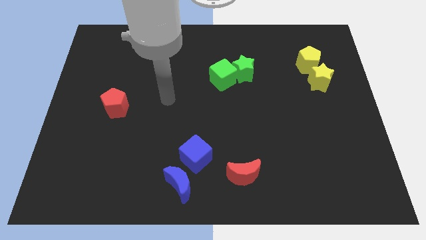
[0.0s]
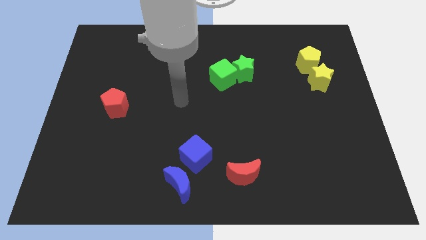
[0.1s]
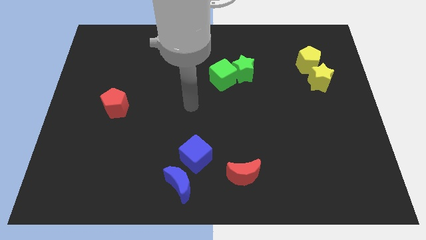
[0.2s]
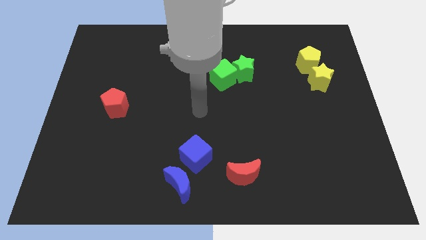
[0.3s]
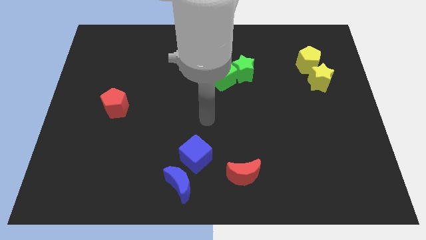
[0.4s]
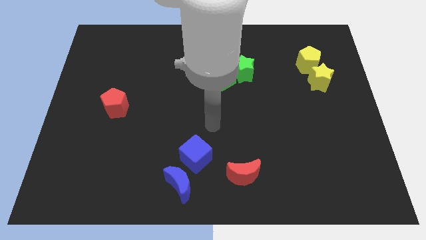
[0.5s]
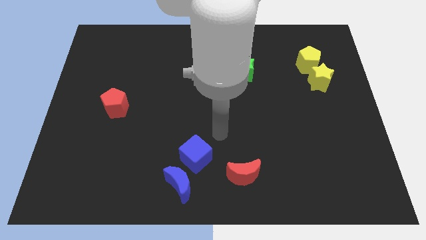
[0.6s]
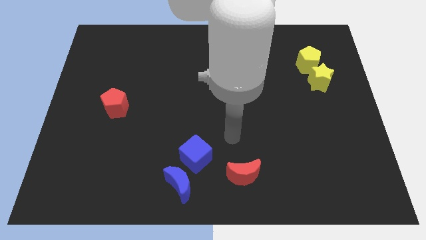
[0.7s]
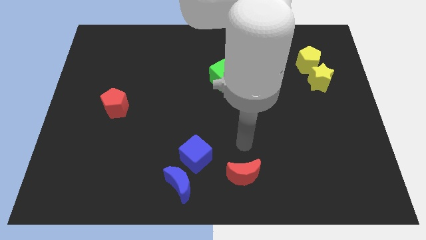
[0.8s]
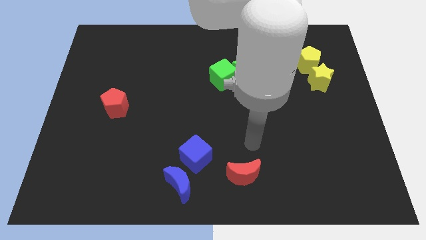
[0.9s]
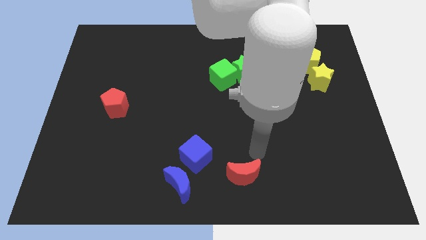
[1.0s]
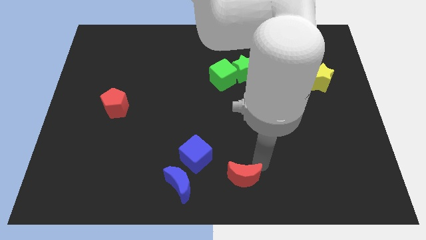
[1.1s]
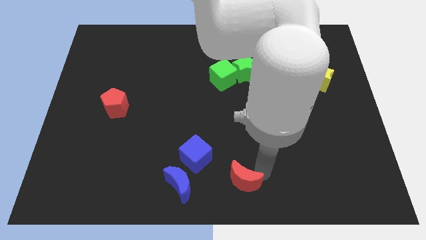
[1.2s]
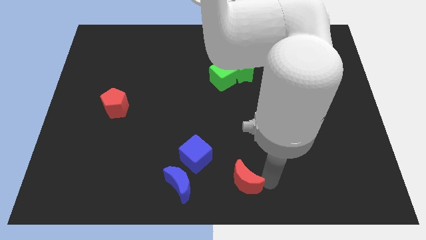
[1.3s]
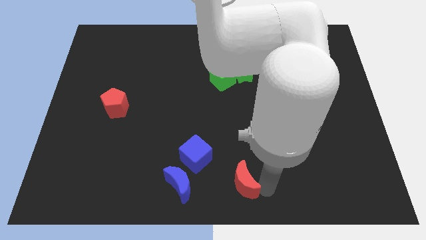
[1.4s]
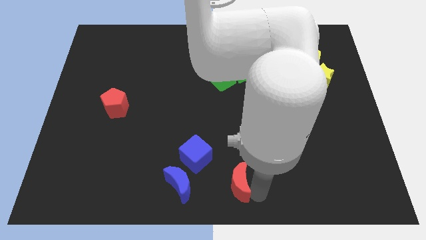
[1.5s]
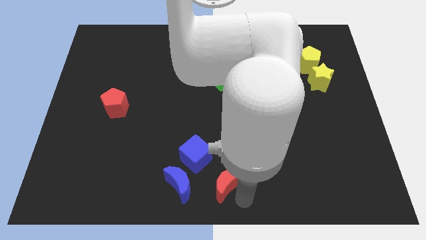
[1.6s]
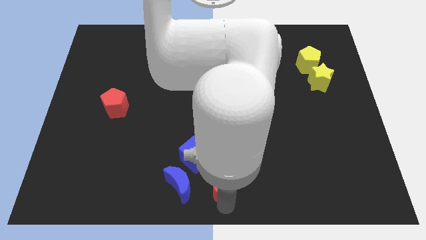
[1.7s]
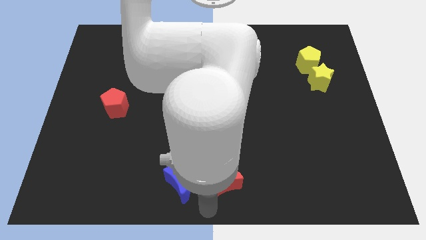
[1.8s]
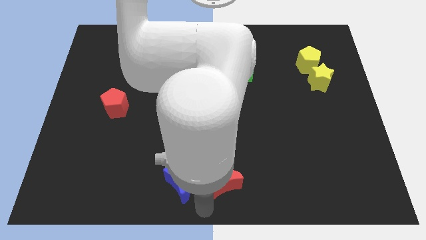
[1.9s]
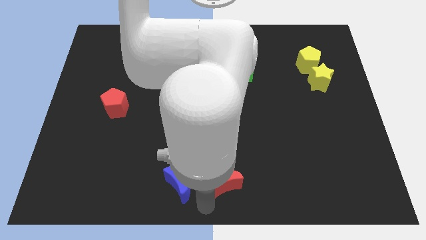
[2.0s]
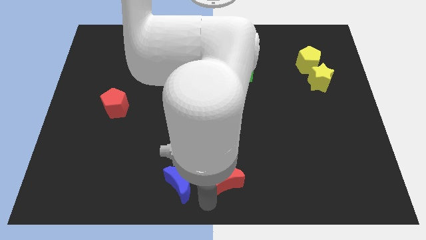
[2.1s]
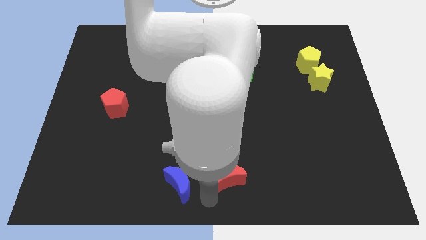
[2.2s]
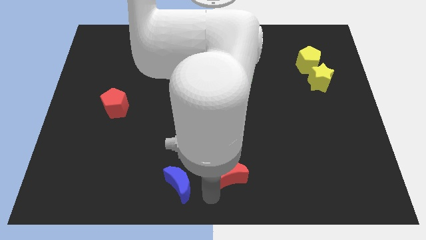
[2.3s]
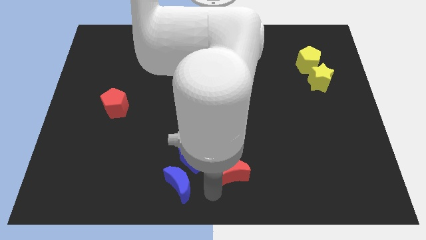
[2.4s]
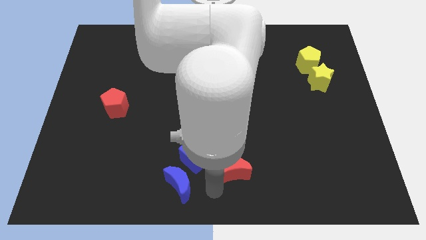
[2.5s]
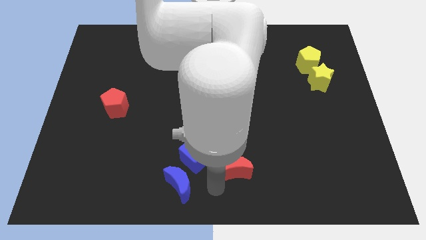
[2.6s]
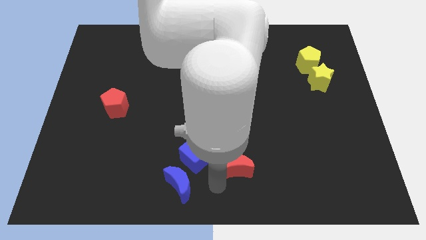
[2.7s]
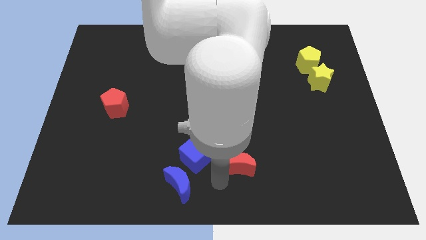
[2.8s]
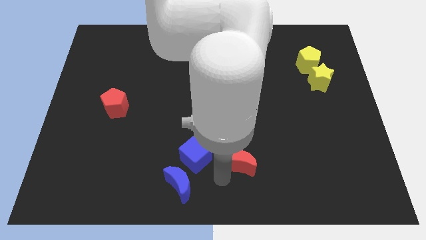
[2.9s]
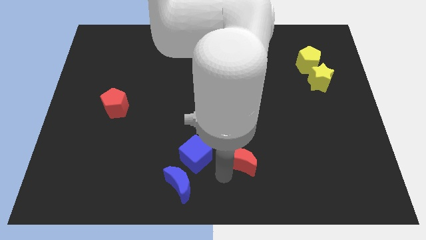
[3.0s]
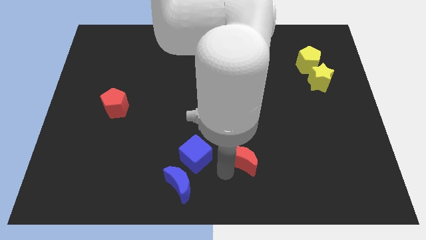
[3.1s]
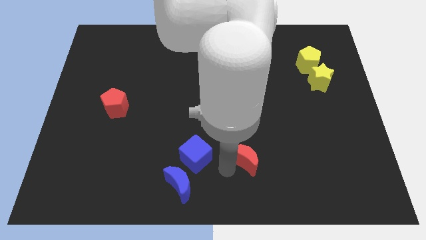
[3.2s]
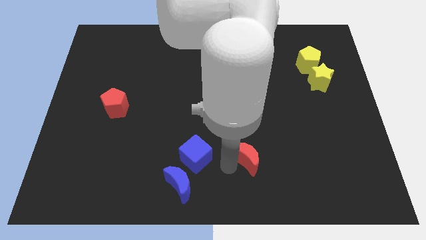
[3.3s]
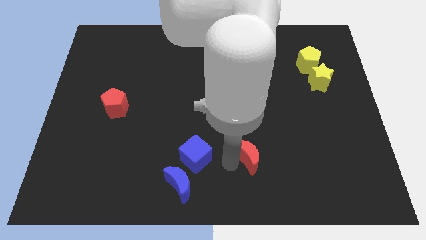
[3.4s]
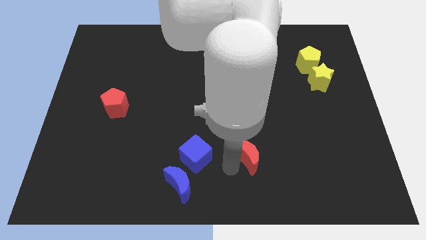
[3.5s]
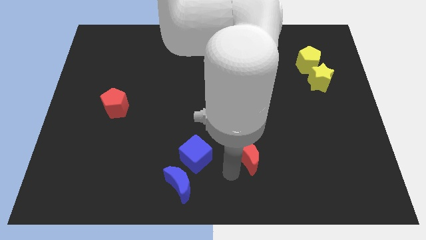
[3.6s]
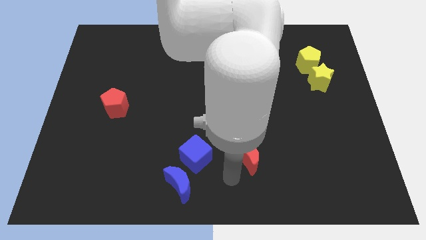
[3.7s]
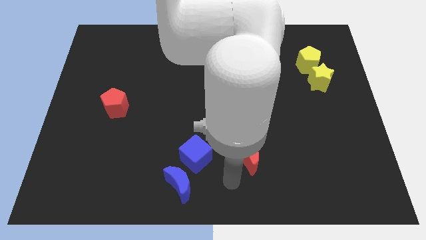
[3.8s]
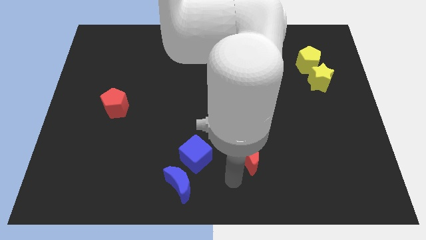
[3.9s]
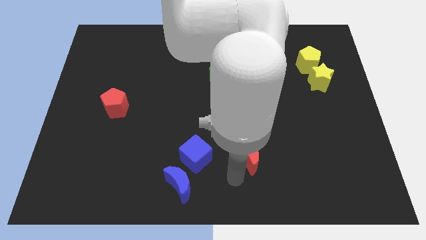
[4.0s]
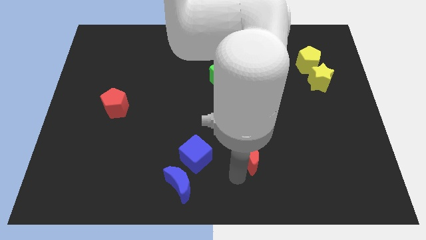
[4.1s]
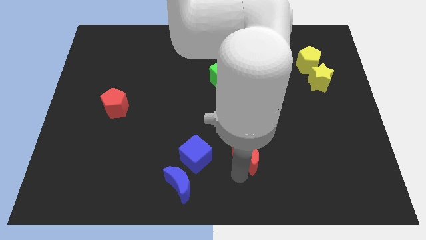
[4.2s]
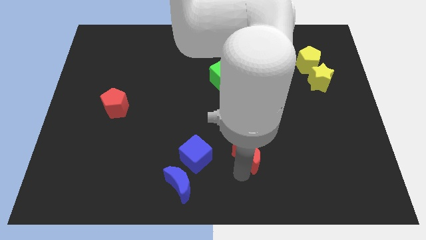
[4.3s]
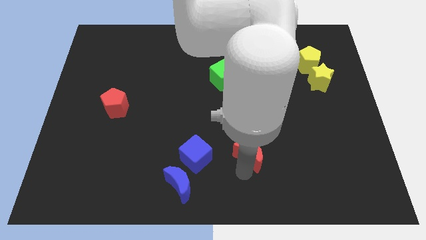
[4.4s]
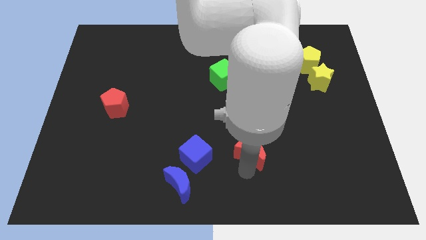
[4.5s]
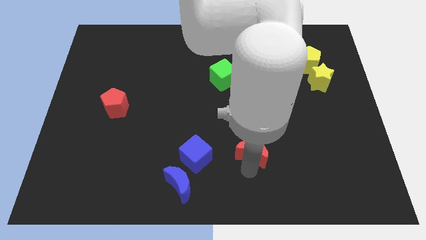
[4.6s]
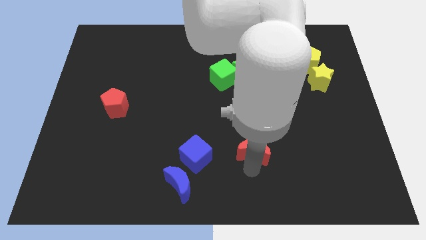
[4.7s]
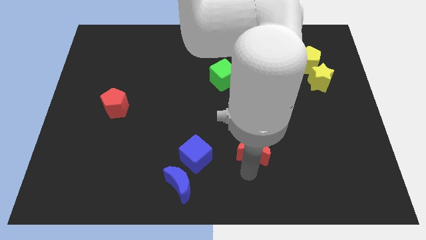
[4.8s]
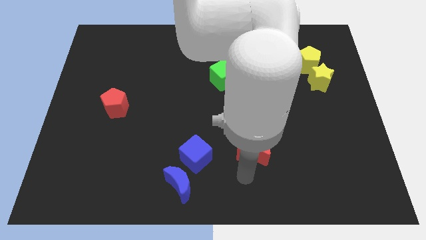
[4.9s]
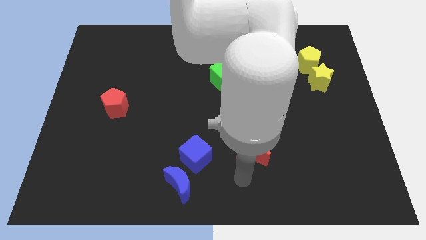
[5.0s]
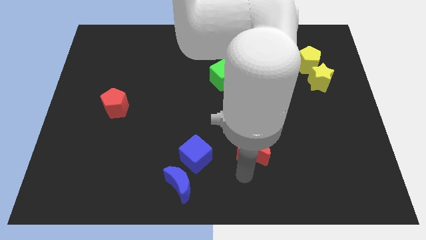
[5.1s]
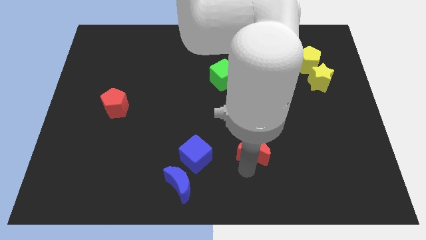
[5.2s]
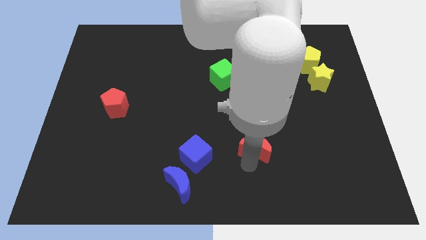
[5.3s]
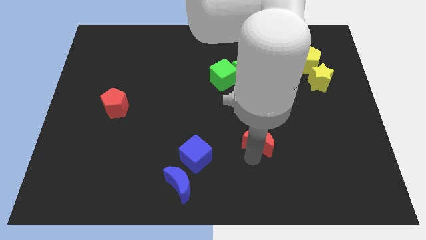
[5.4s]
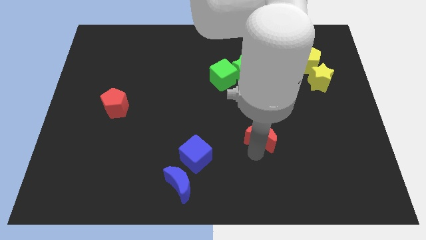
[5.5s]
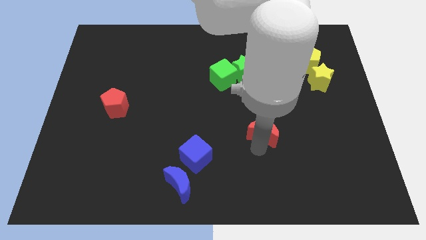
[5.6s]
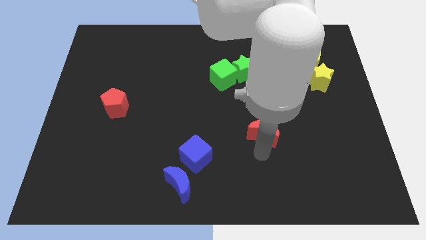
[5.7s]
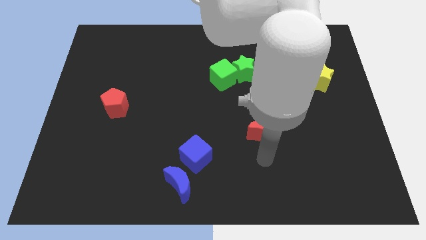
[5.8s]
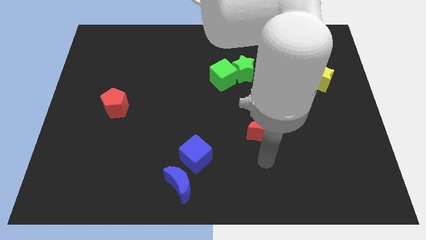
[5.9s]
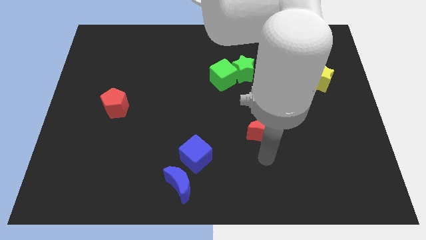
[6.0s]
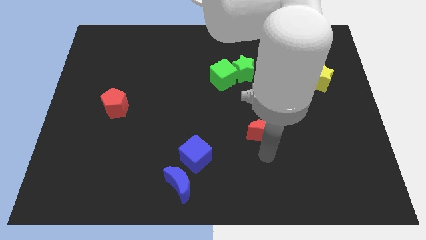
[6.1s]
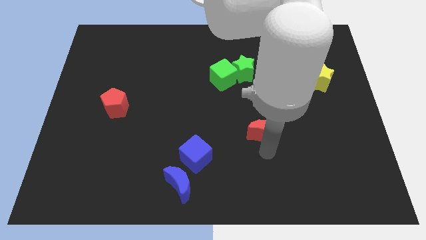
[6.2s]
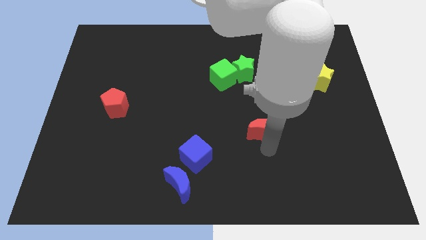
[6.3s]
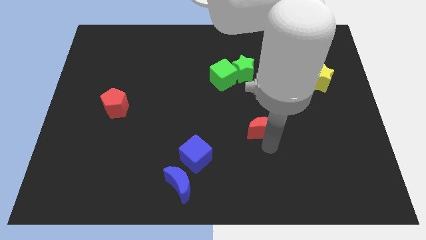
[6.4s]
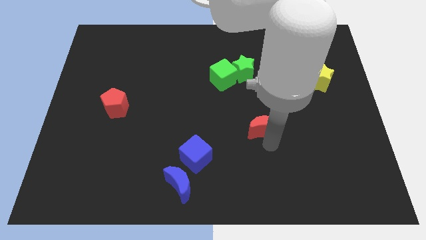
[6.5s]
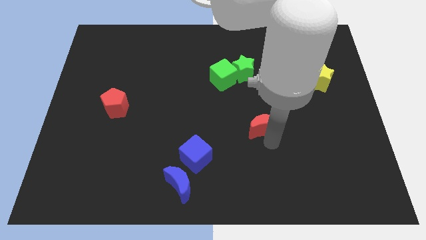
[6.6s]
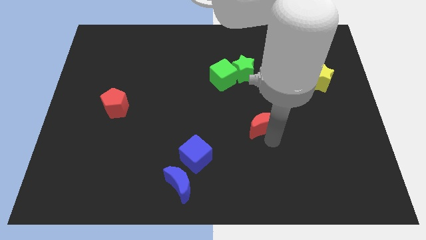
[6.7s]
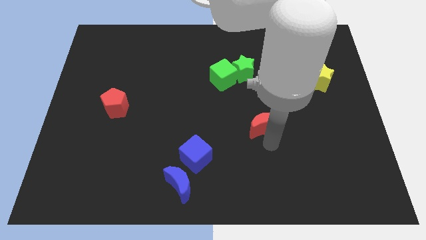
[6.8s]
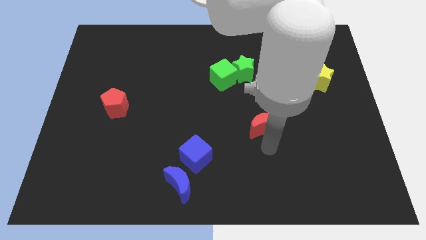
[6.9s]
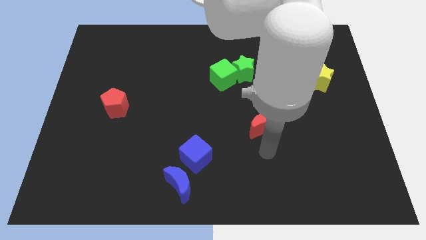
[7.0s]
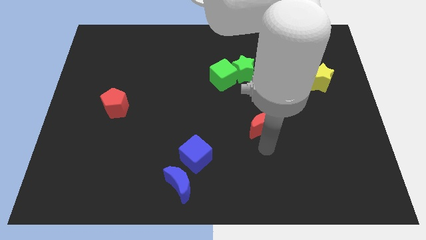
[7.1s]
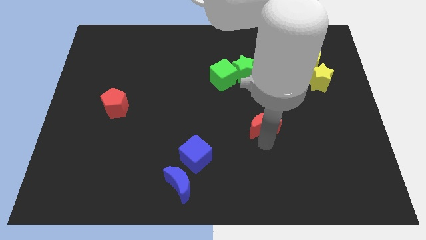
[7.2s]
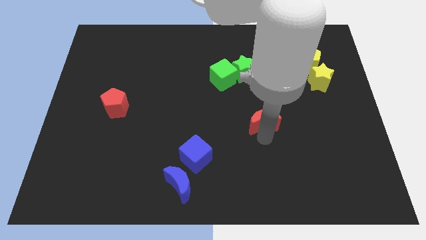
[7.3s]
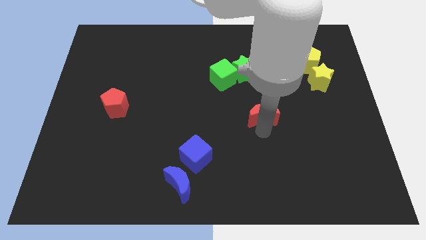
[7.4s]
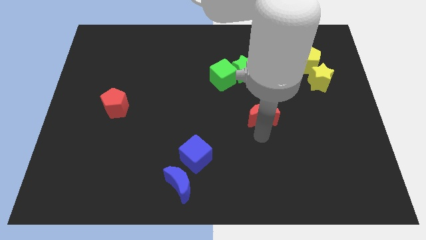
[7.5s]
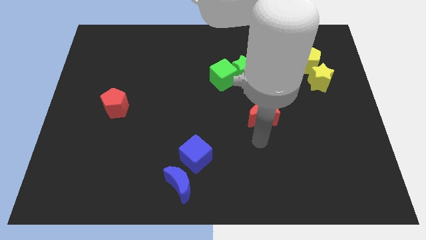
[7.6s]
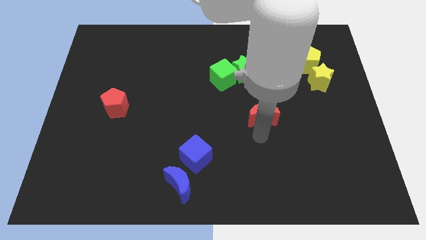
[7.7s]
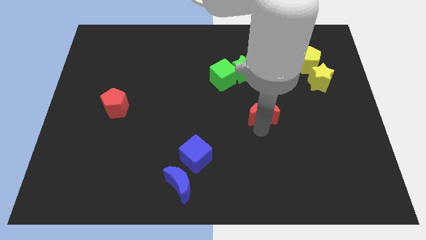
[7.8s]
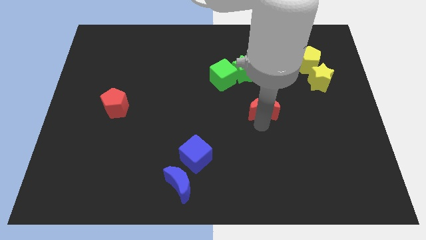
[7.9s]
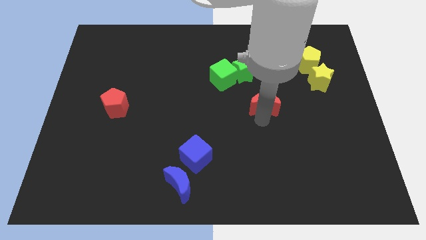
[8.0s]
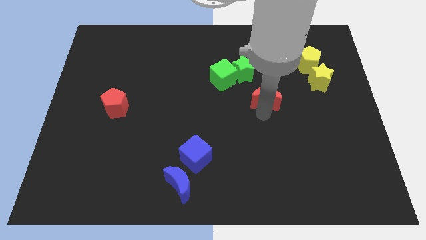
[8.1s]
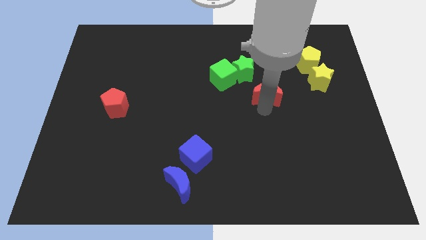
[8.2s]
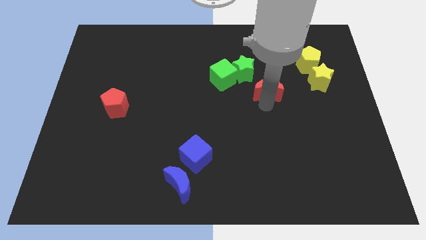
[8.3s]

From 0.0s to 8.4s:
move the red moon up

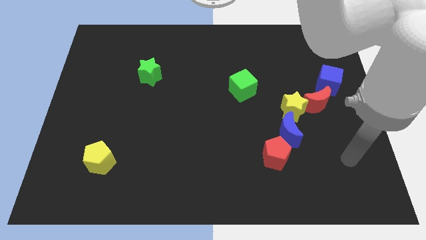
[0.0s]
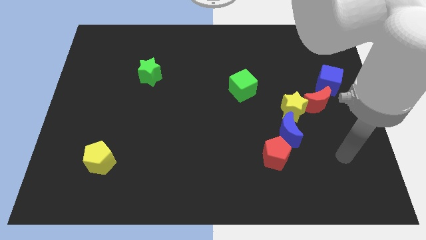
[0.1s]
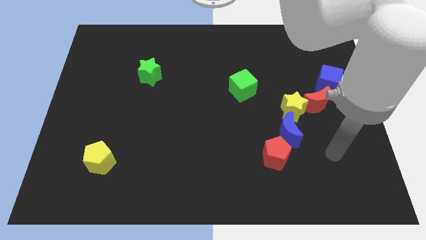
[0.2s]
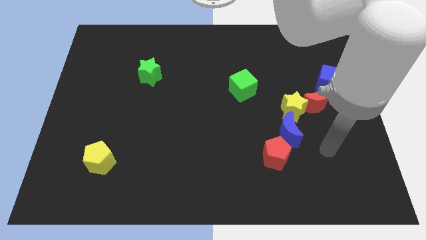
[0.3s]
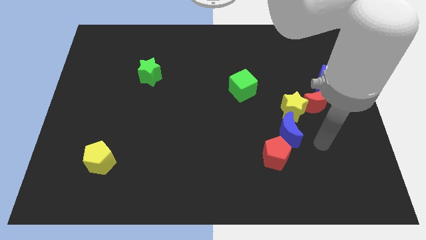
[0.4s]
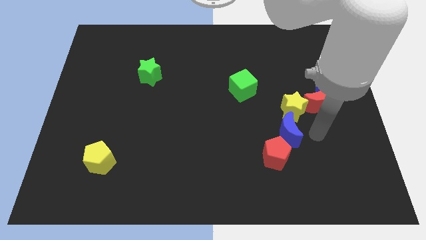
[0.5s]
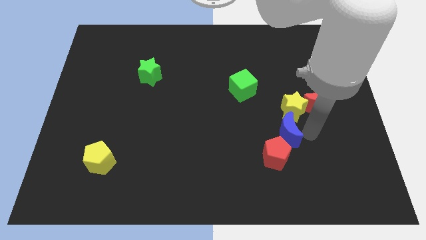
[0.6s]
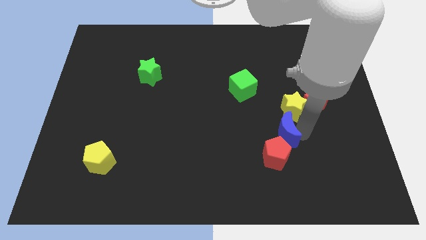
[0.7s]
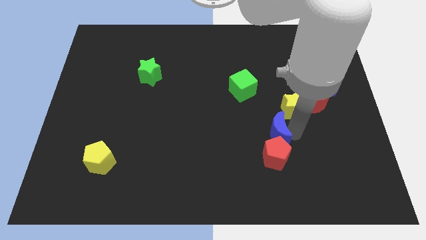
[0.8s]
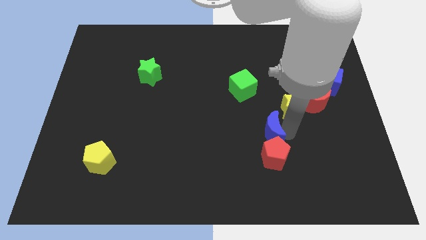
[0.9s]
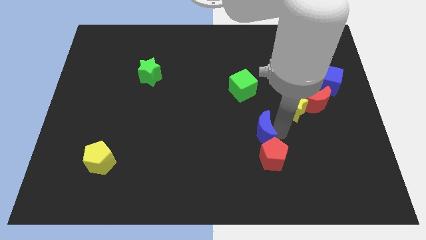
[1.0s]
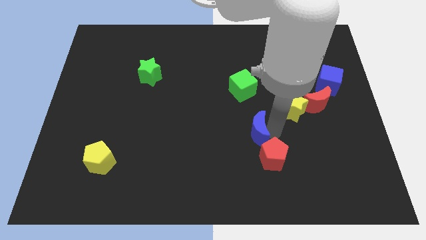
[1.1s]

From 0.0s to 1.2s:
push the blue moon somewhat left
